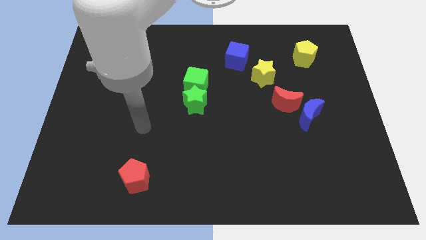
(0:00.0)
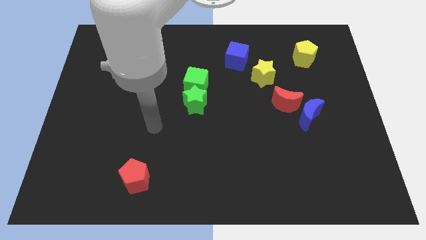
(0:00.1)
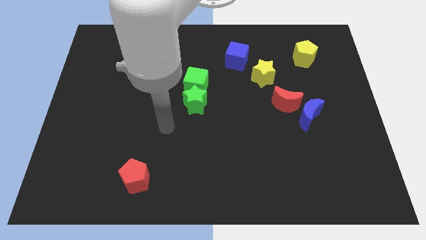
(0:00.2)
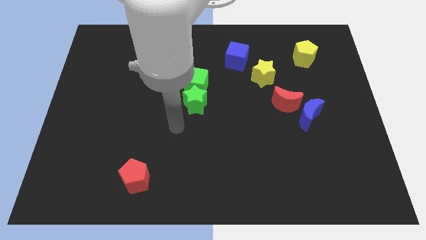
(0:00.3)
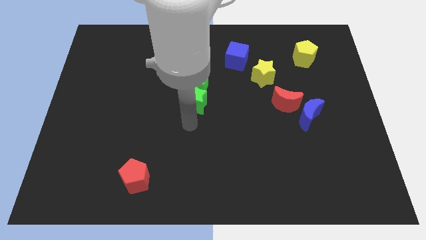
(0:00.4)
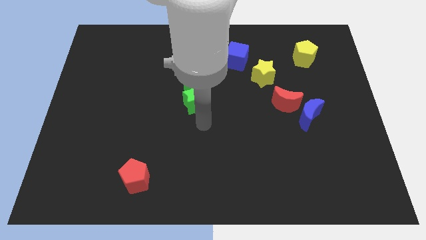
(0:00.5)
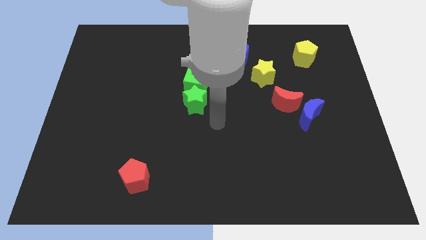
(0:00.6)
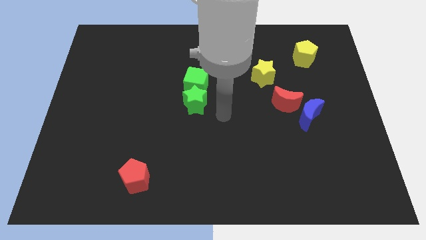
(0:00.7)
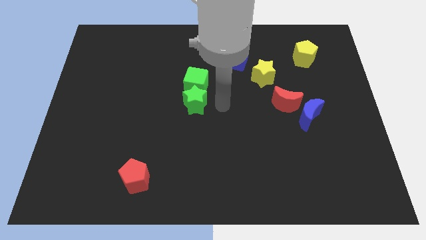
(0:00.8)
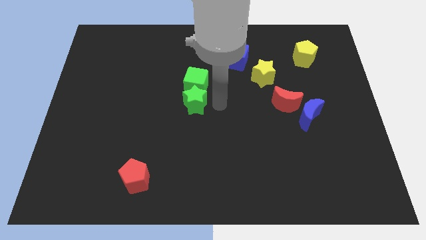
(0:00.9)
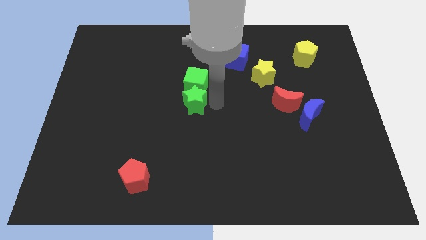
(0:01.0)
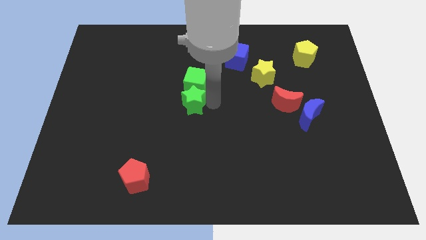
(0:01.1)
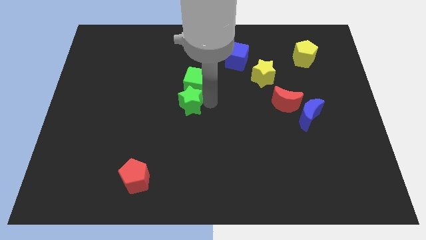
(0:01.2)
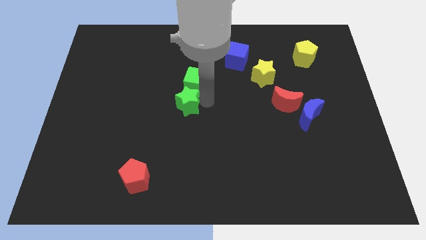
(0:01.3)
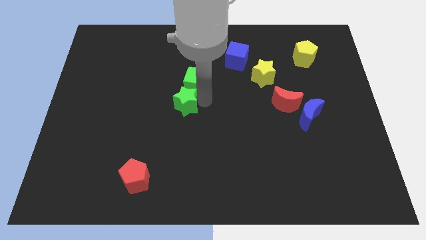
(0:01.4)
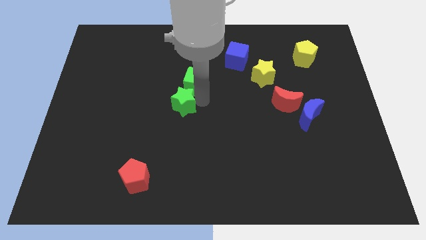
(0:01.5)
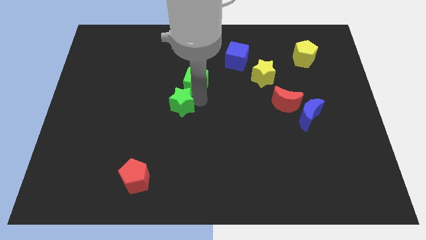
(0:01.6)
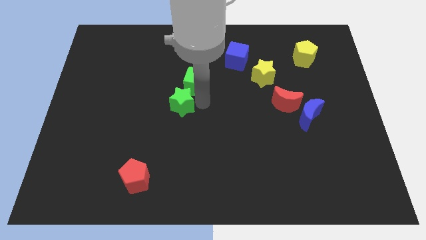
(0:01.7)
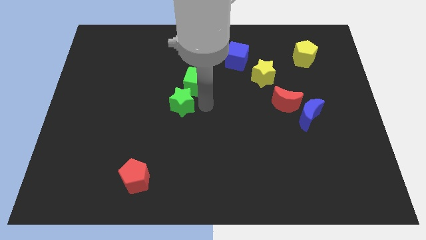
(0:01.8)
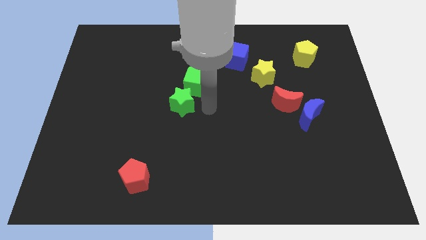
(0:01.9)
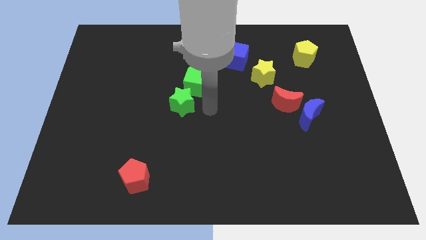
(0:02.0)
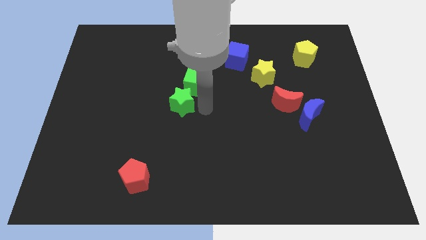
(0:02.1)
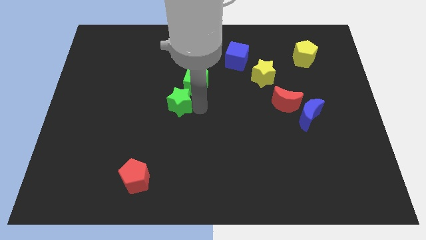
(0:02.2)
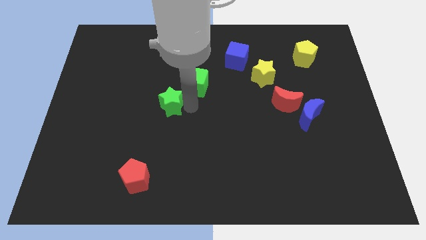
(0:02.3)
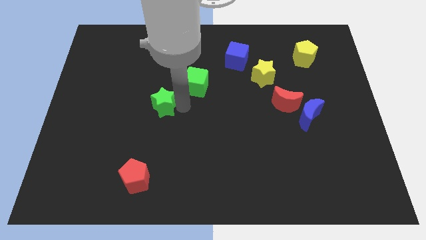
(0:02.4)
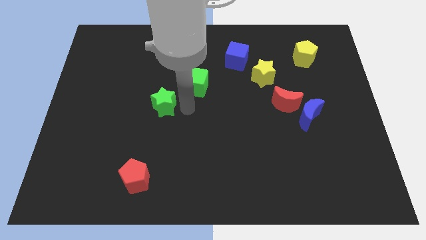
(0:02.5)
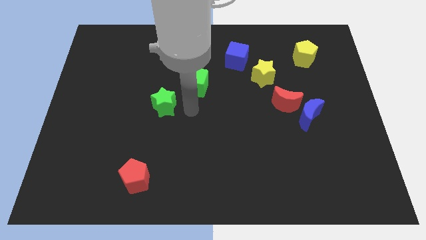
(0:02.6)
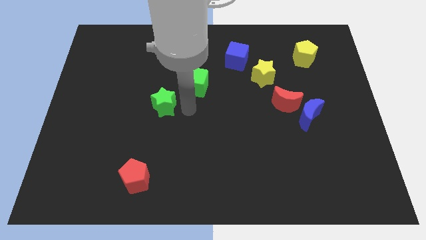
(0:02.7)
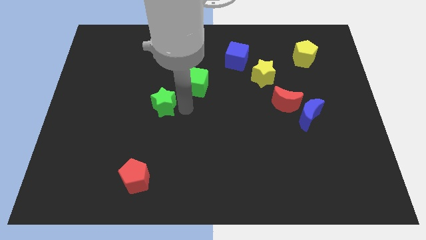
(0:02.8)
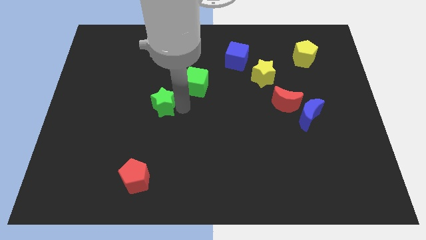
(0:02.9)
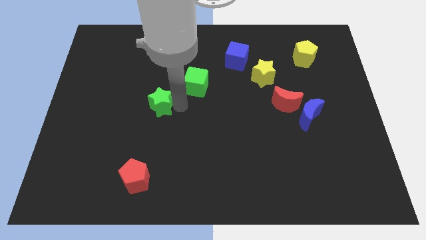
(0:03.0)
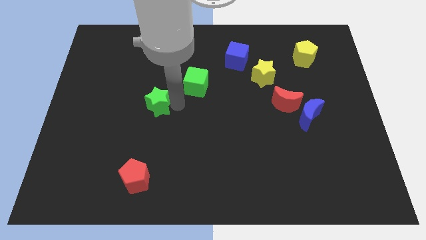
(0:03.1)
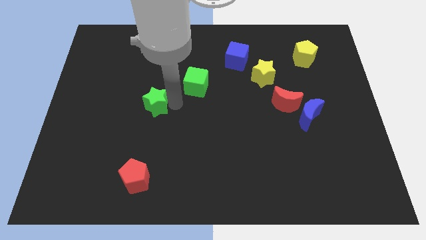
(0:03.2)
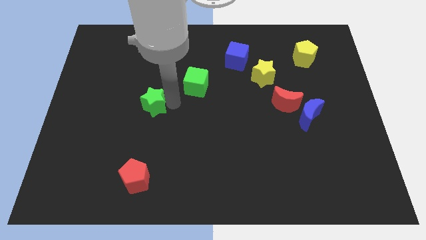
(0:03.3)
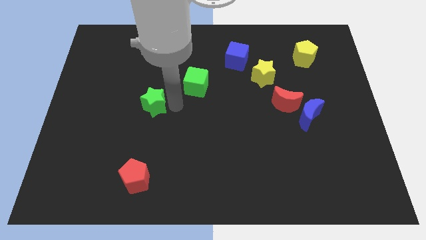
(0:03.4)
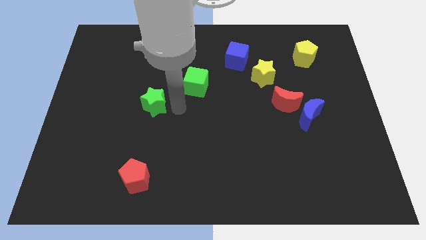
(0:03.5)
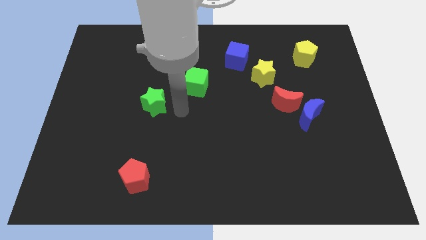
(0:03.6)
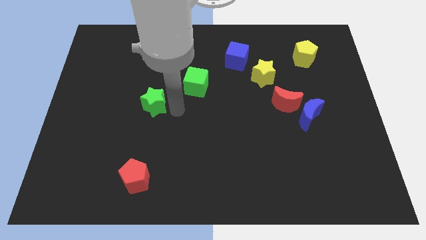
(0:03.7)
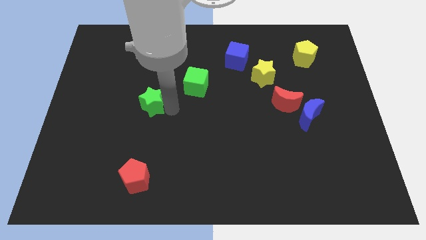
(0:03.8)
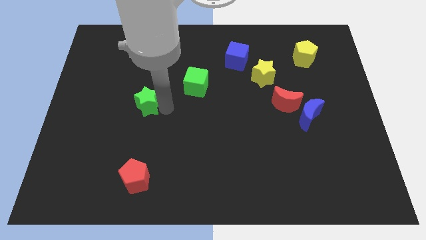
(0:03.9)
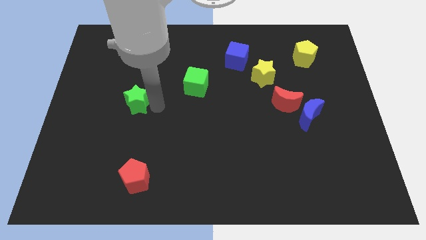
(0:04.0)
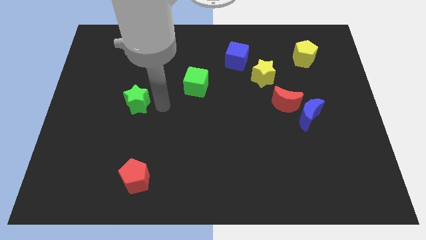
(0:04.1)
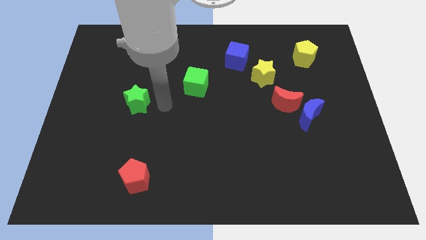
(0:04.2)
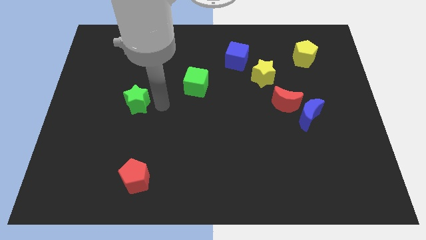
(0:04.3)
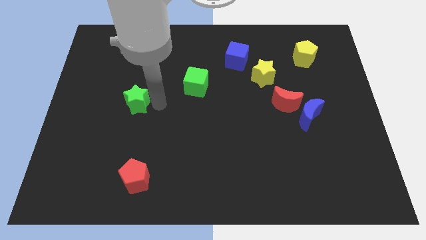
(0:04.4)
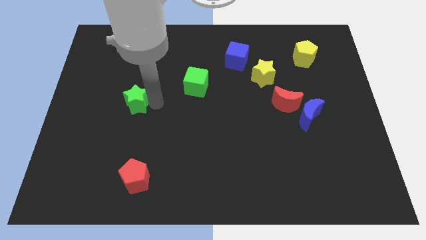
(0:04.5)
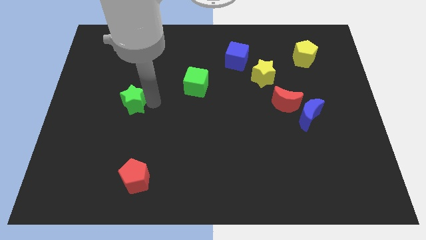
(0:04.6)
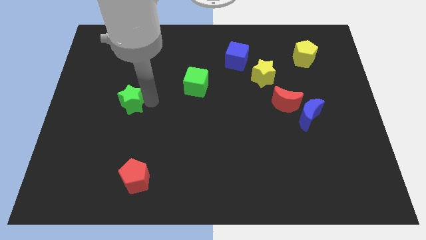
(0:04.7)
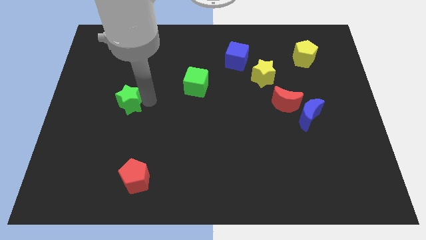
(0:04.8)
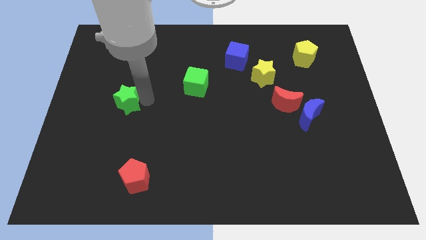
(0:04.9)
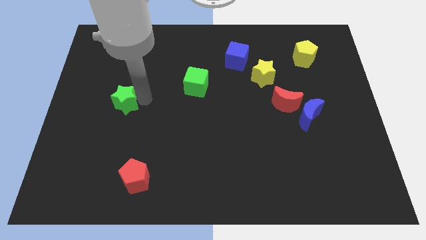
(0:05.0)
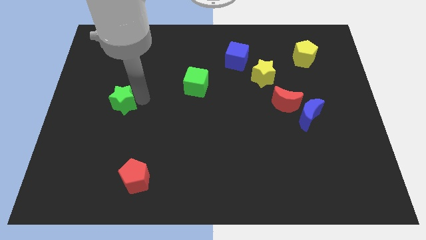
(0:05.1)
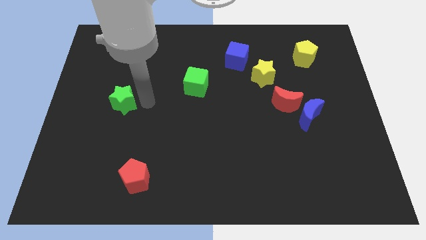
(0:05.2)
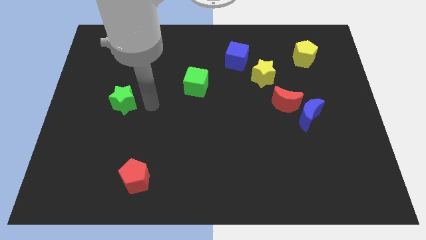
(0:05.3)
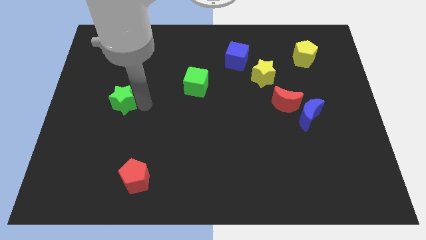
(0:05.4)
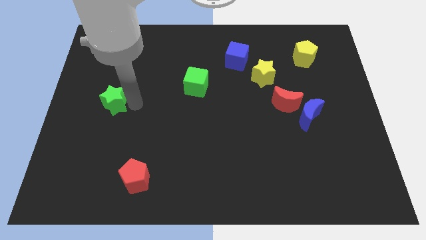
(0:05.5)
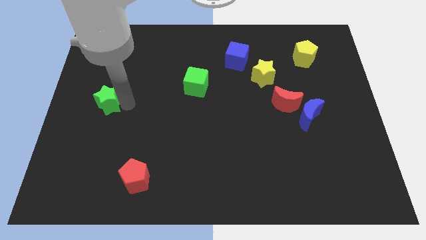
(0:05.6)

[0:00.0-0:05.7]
slide the green star to the left side of the board
